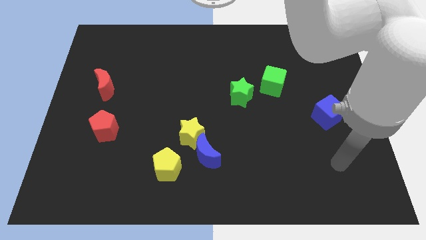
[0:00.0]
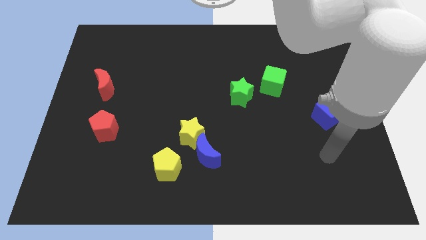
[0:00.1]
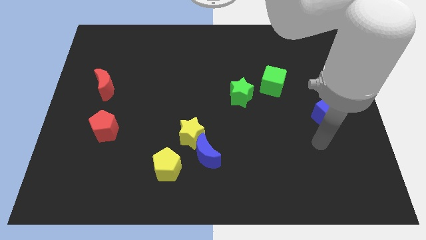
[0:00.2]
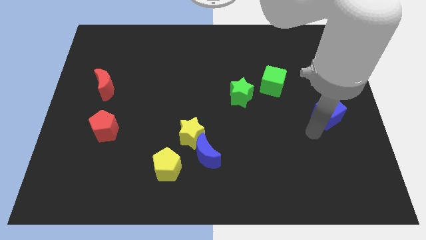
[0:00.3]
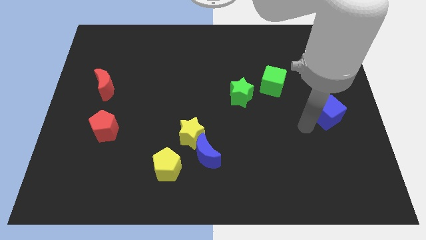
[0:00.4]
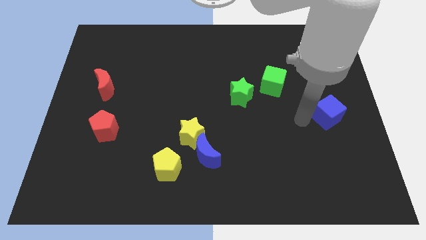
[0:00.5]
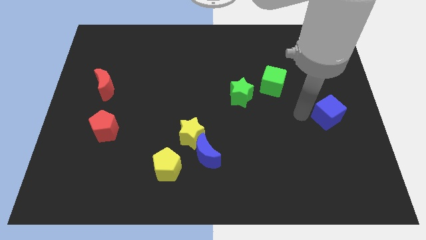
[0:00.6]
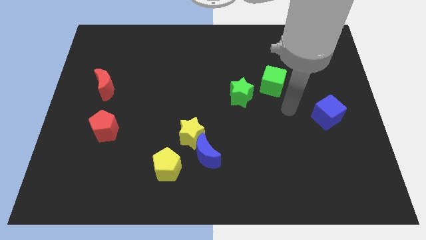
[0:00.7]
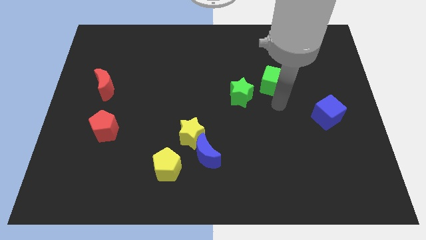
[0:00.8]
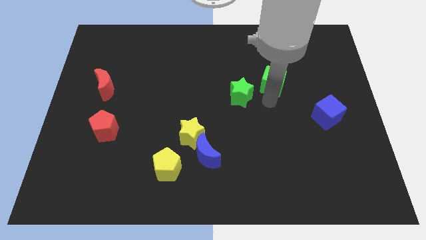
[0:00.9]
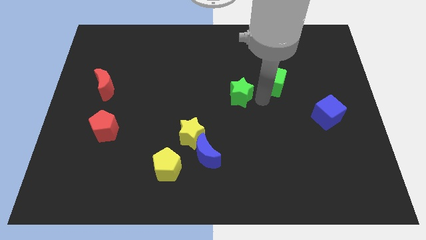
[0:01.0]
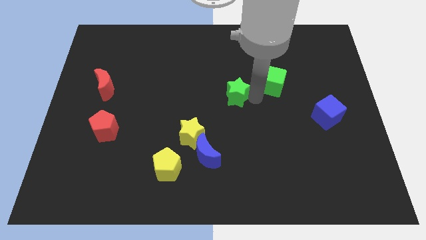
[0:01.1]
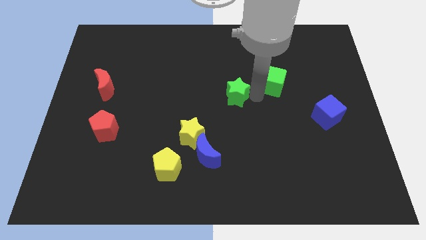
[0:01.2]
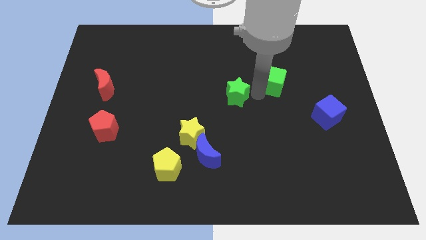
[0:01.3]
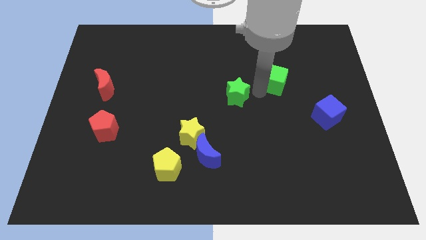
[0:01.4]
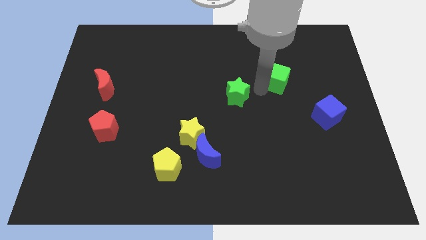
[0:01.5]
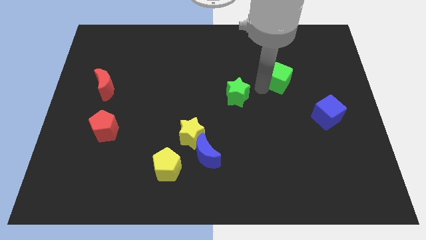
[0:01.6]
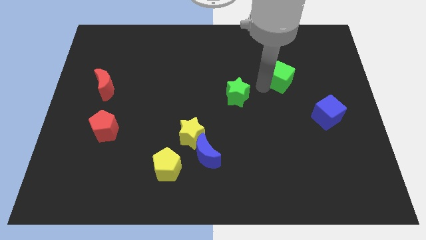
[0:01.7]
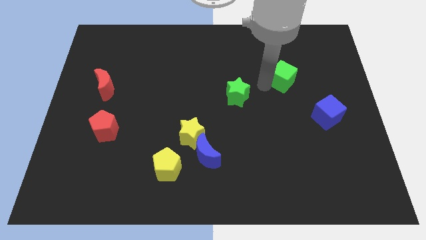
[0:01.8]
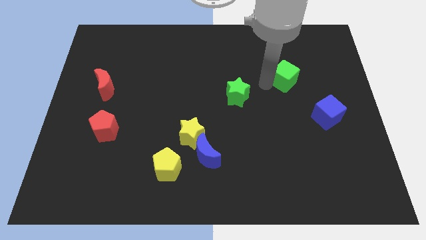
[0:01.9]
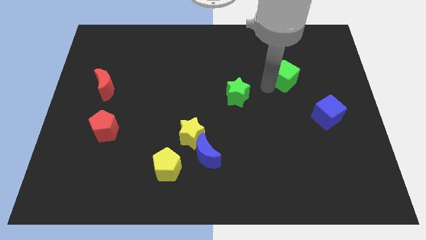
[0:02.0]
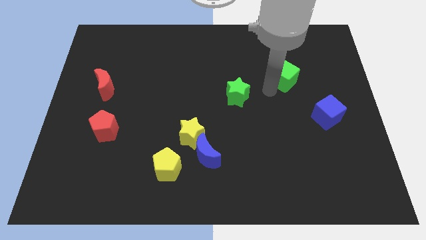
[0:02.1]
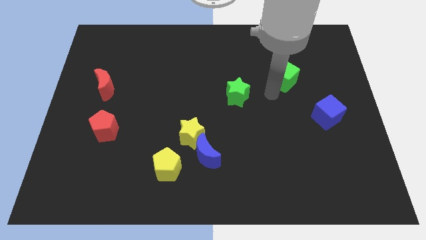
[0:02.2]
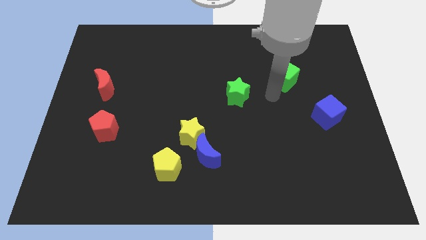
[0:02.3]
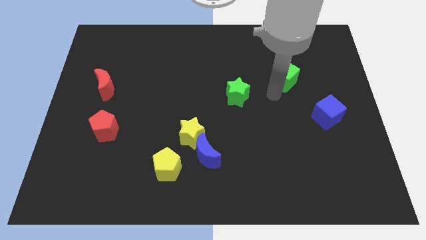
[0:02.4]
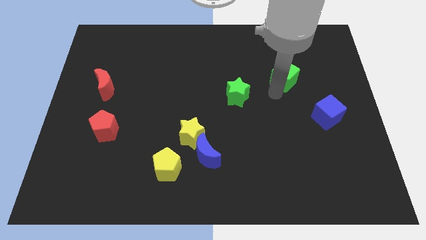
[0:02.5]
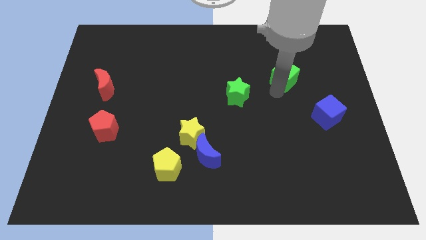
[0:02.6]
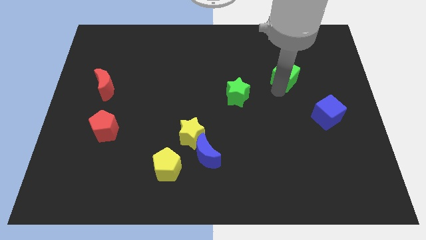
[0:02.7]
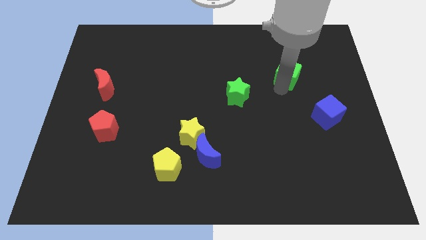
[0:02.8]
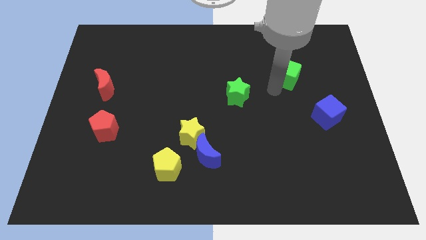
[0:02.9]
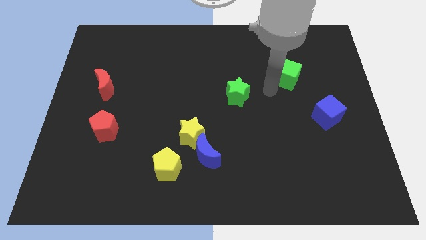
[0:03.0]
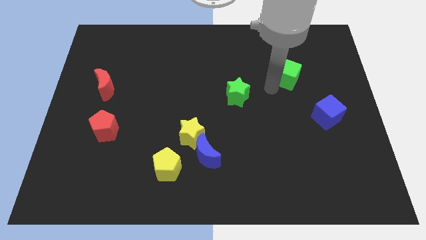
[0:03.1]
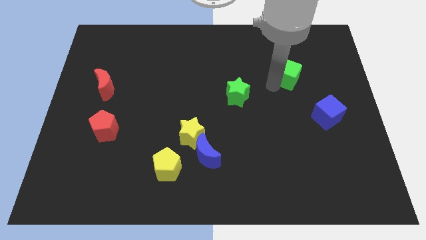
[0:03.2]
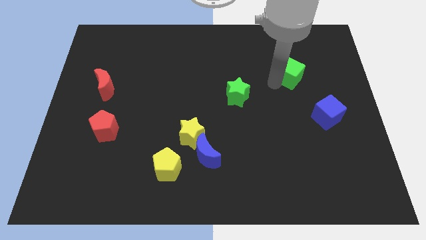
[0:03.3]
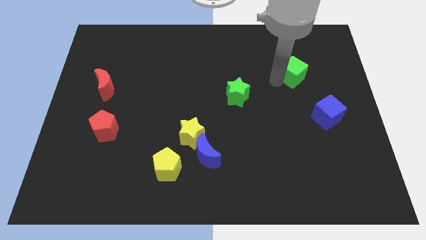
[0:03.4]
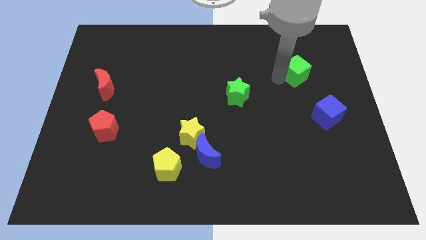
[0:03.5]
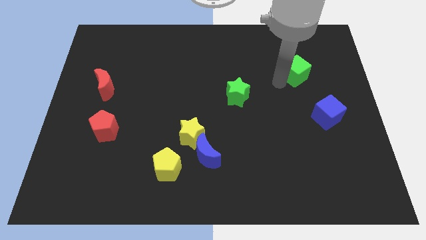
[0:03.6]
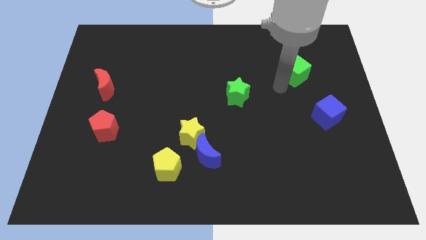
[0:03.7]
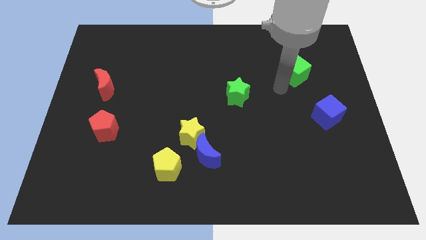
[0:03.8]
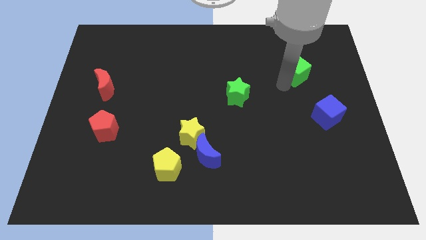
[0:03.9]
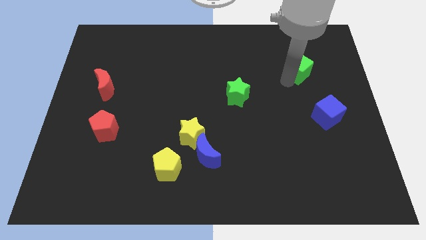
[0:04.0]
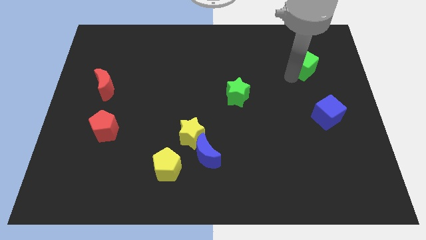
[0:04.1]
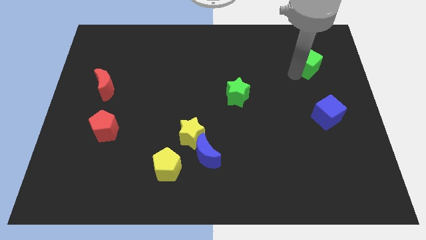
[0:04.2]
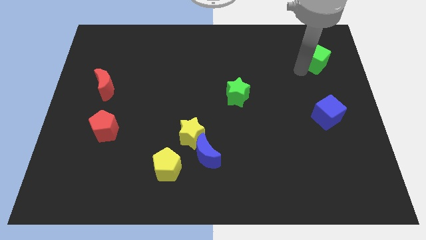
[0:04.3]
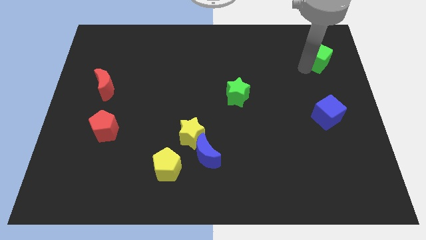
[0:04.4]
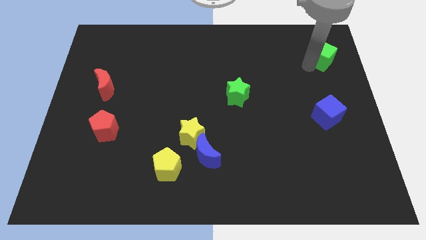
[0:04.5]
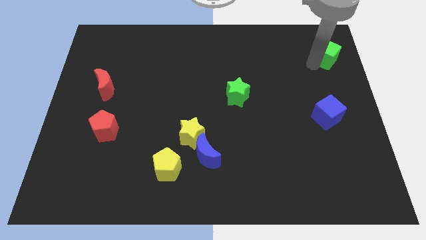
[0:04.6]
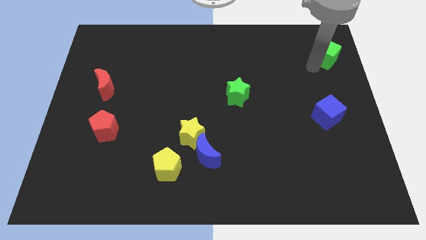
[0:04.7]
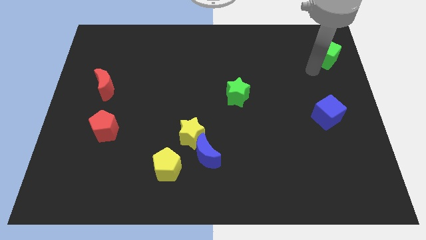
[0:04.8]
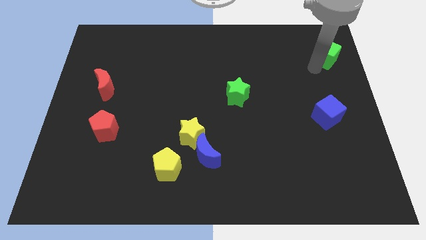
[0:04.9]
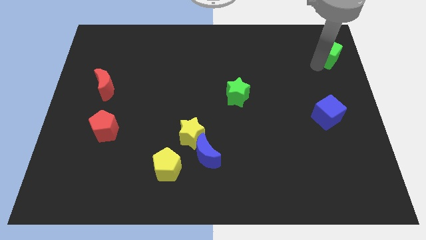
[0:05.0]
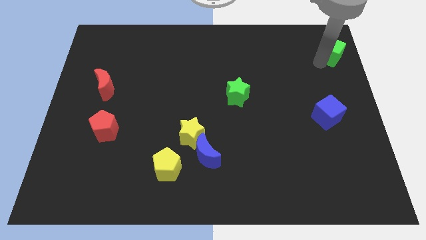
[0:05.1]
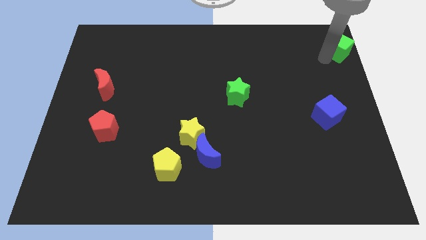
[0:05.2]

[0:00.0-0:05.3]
move the green cube to the top right
